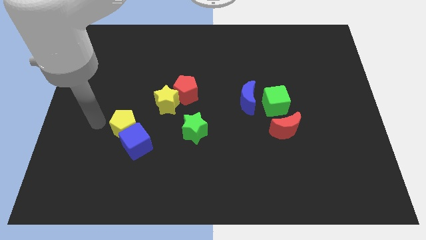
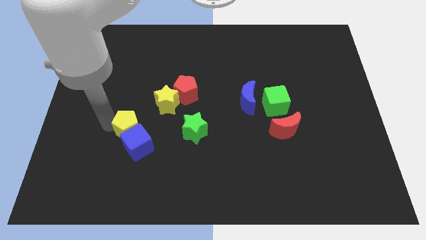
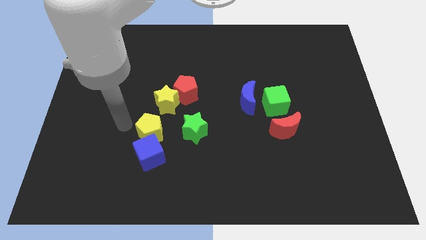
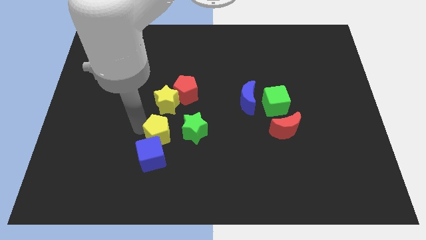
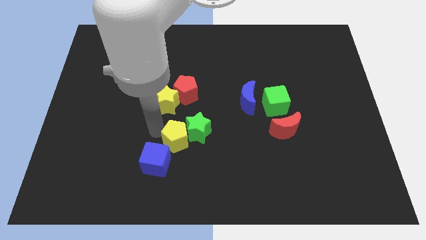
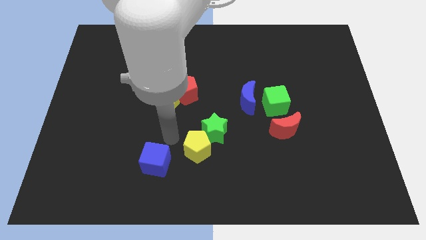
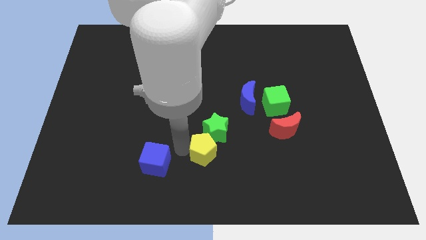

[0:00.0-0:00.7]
move the blue cube away from the yellow pentagon

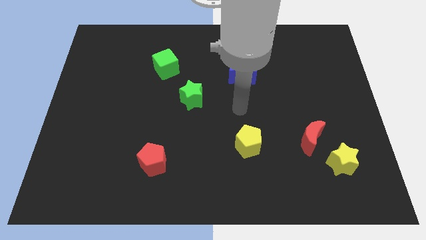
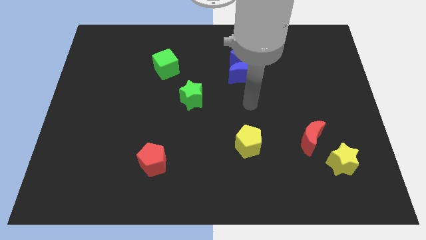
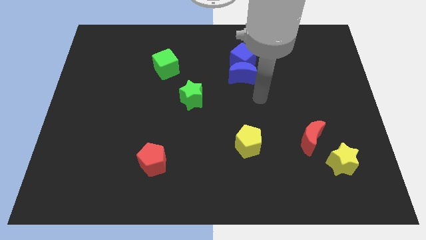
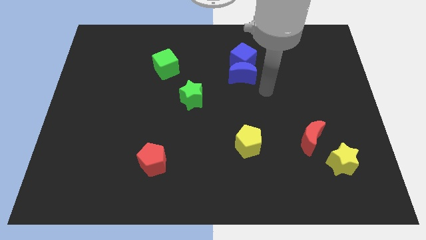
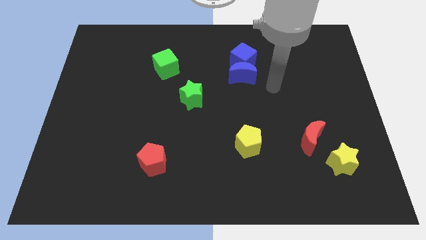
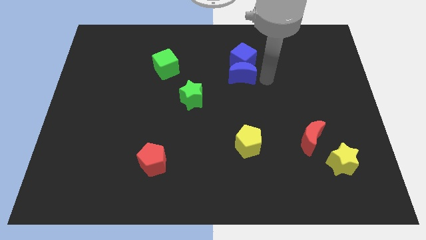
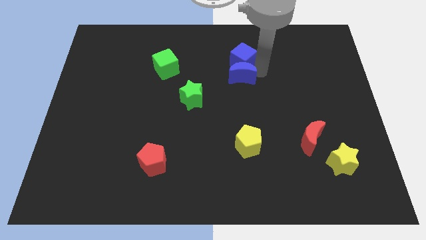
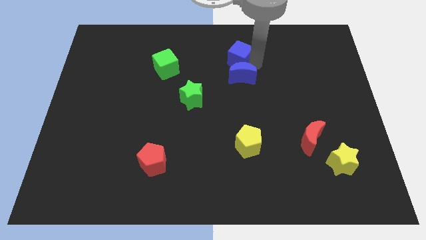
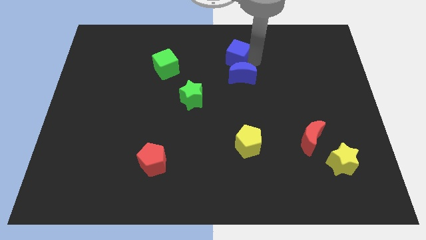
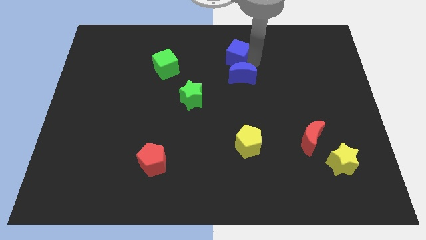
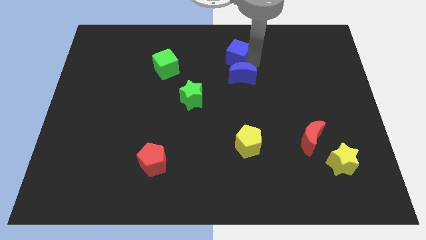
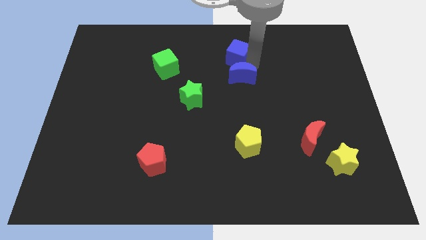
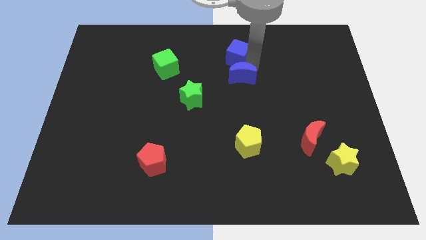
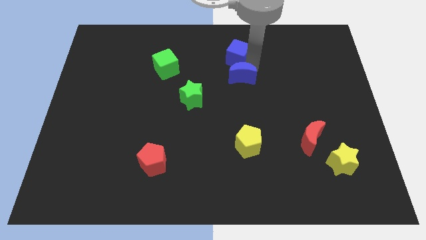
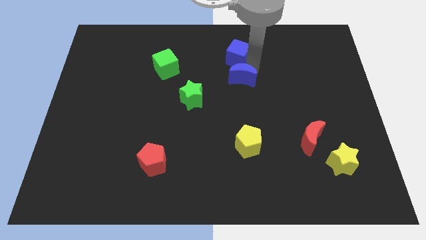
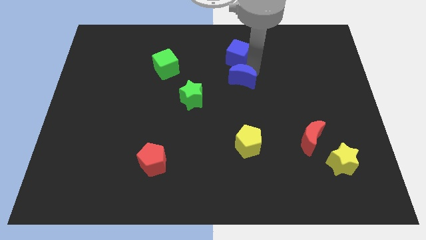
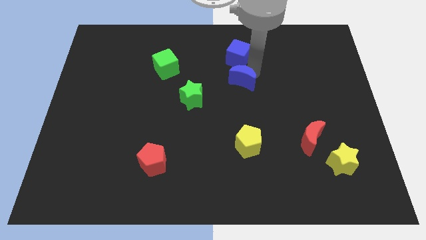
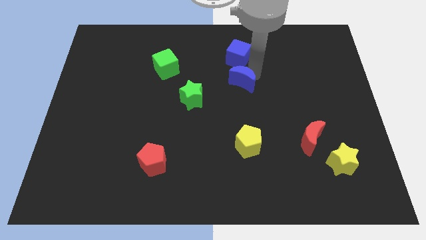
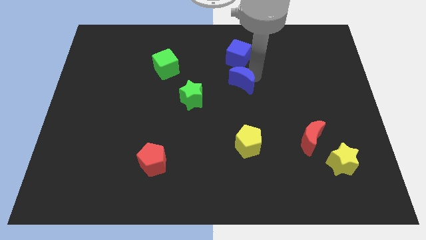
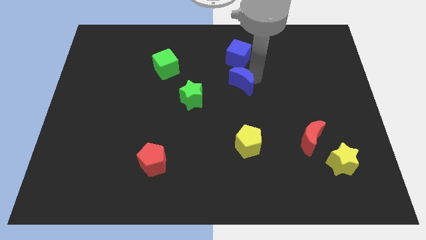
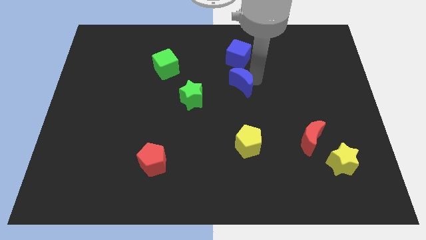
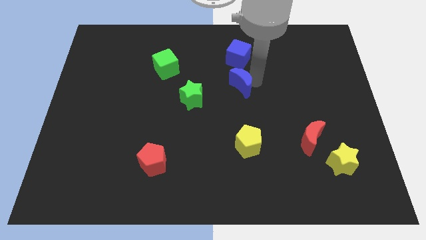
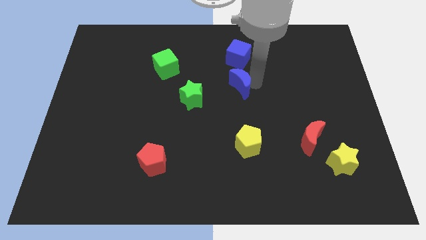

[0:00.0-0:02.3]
pull the blue moon apart from the blue cube

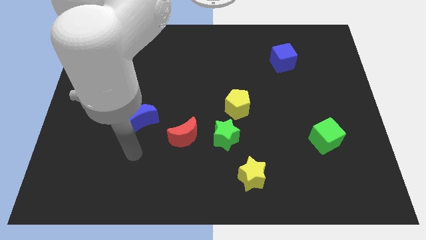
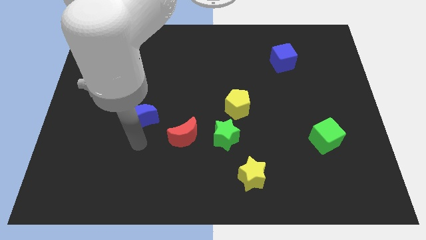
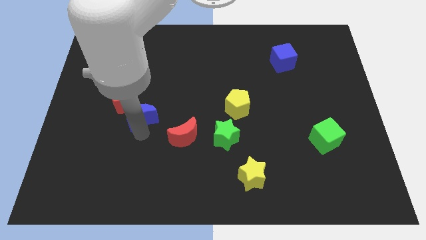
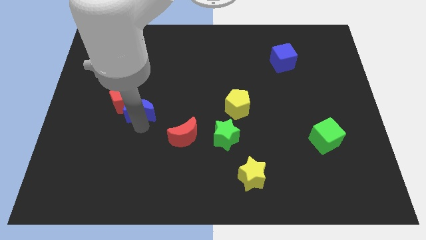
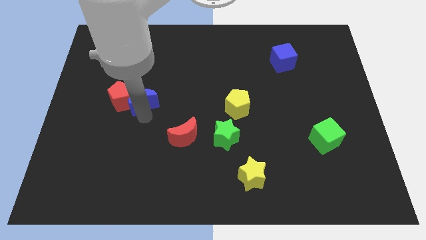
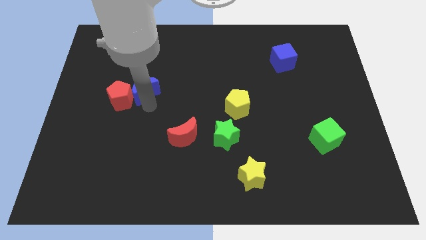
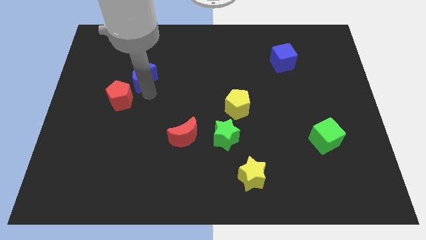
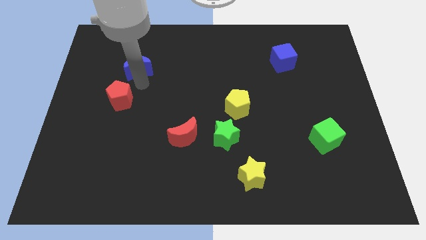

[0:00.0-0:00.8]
move the red pentagon away from the blue moon

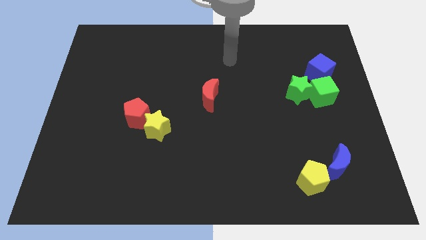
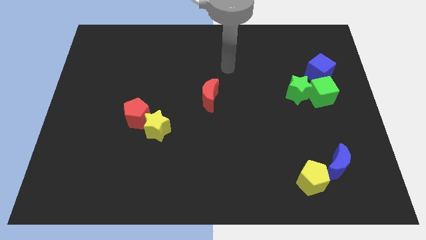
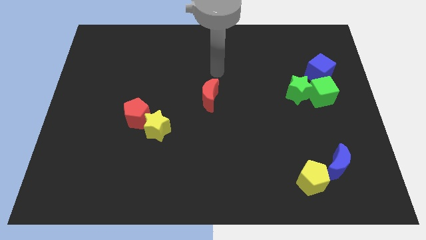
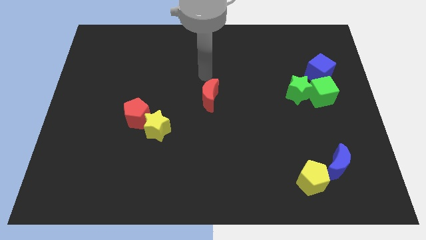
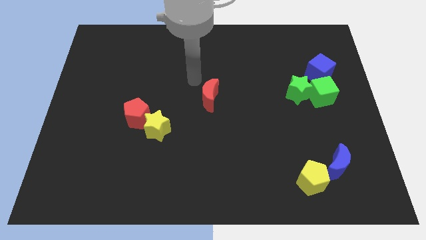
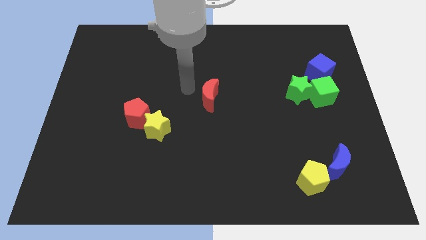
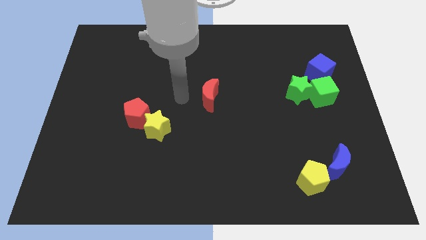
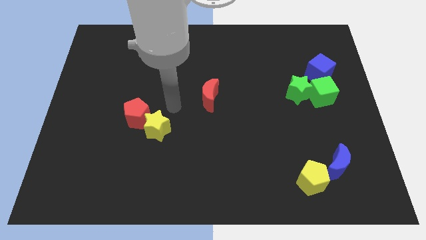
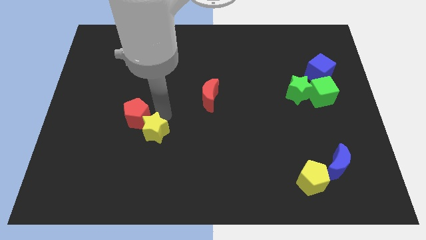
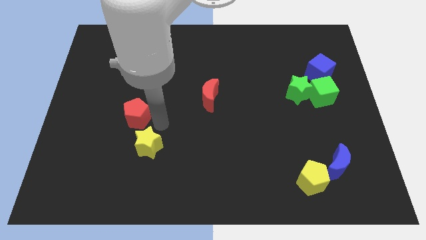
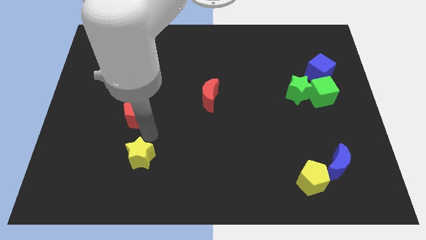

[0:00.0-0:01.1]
pull the red pentagon apart from the yellow star

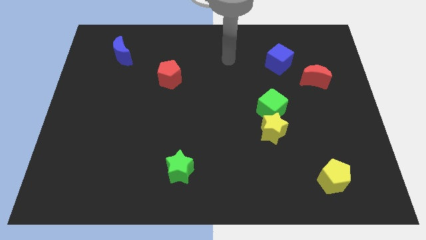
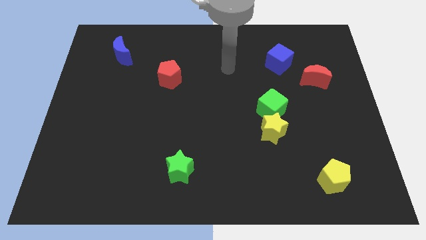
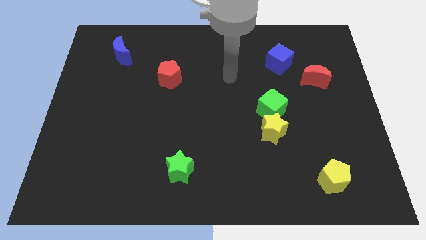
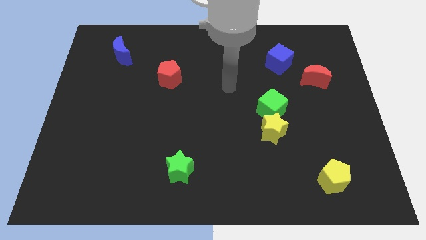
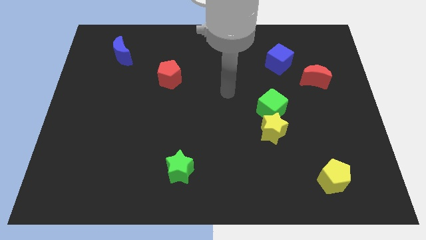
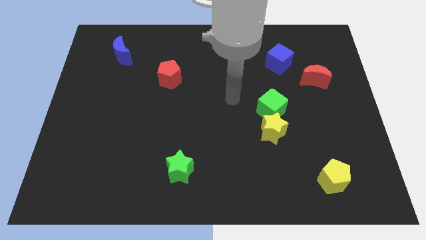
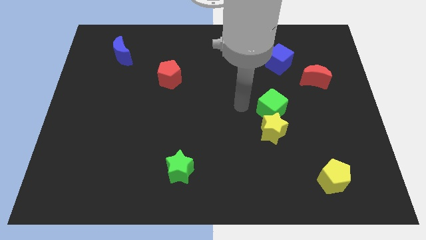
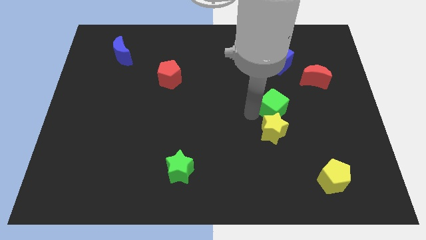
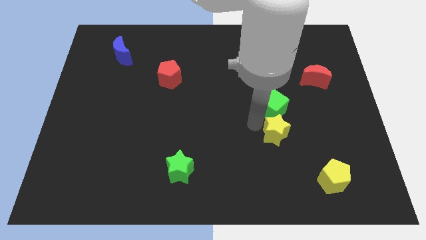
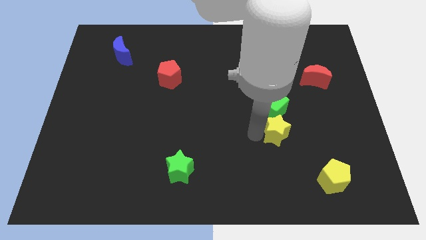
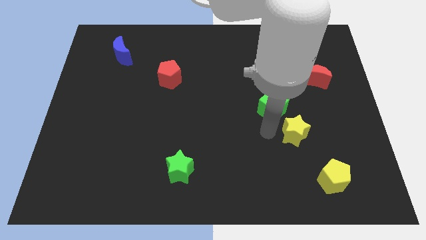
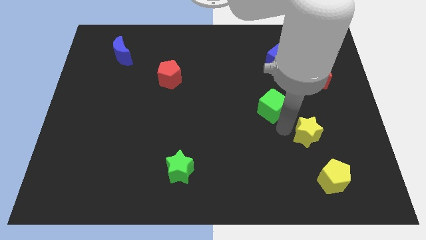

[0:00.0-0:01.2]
pull the green cube apart from the yellow star

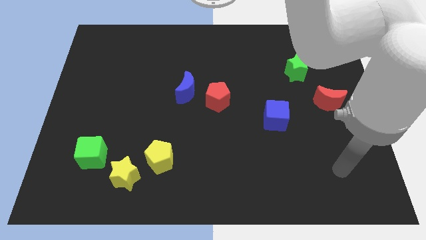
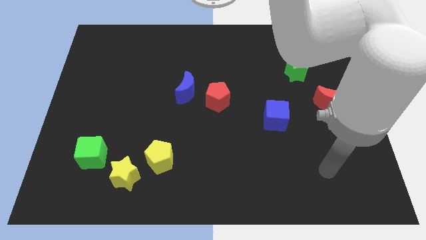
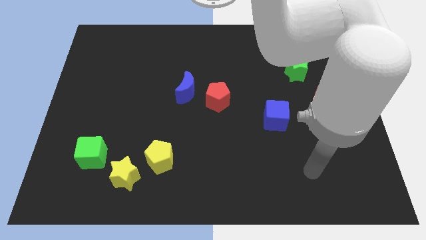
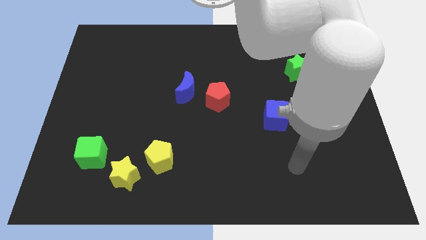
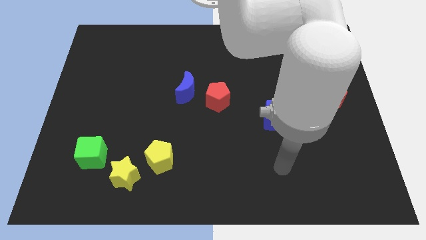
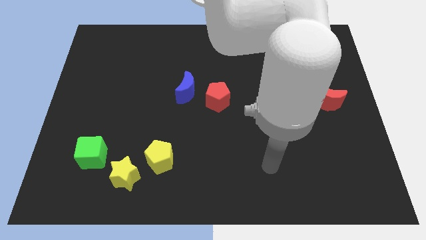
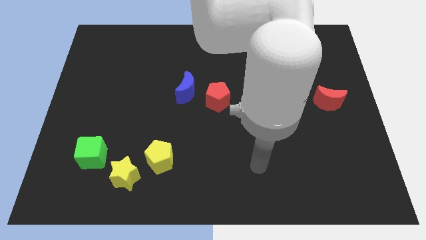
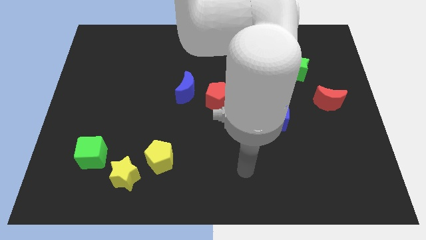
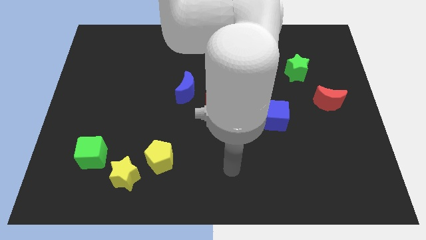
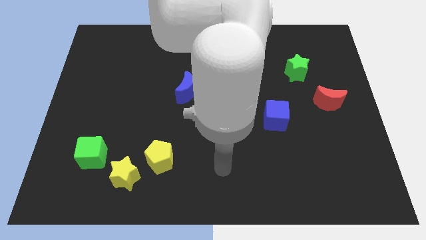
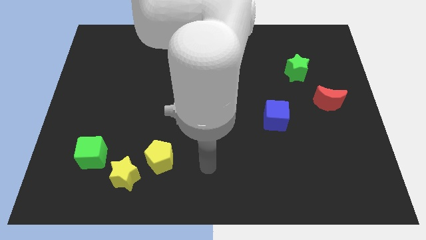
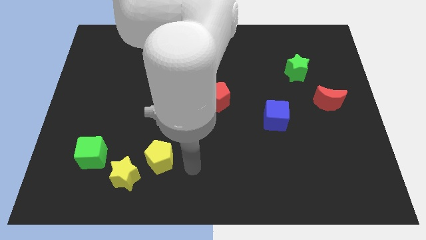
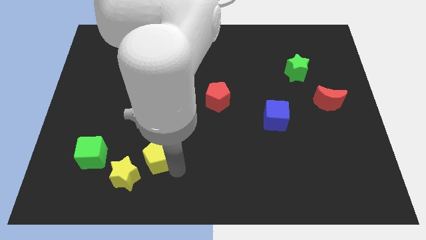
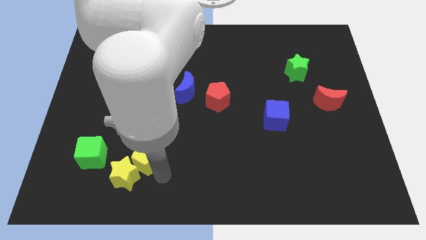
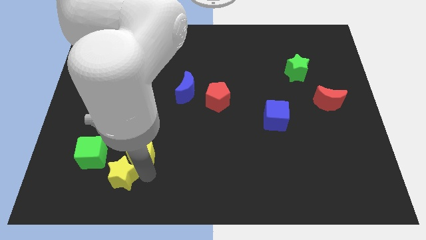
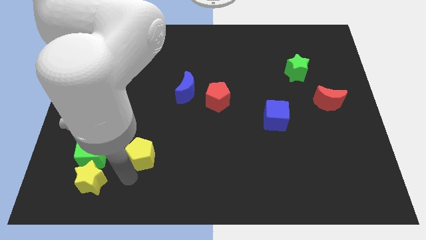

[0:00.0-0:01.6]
move the yellow pentagon away from the yellow star

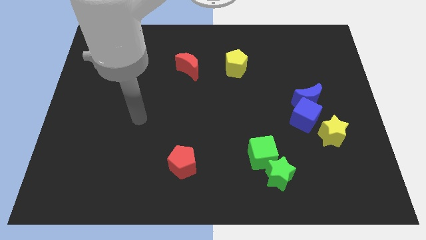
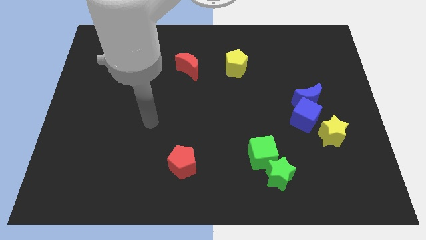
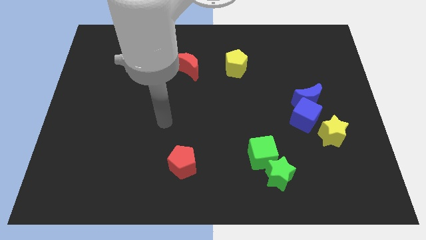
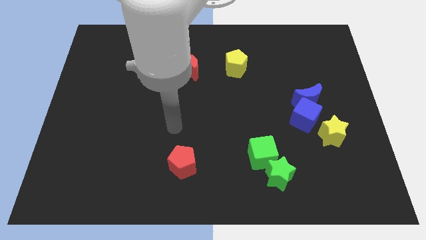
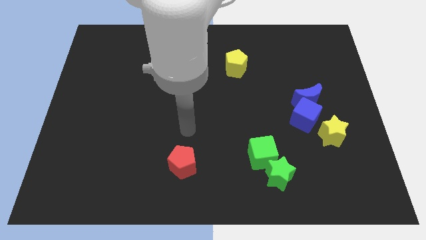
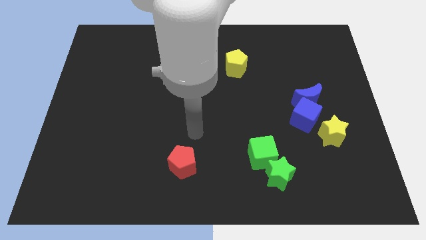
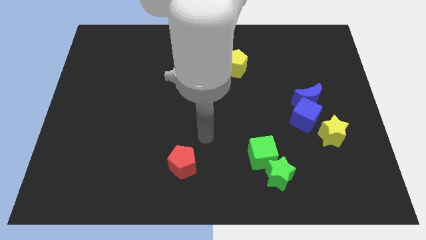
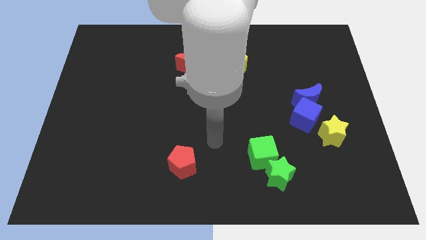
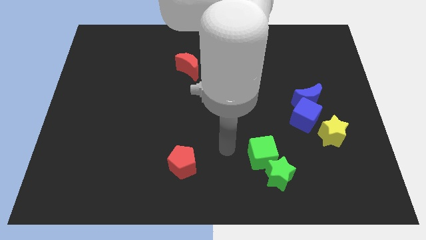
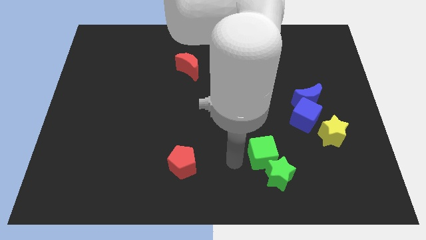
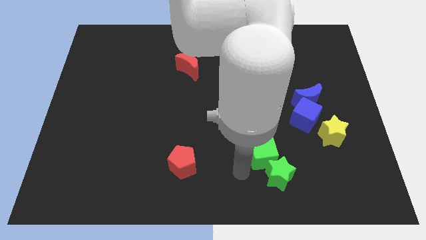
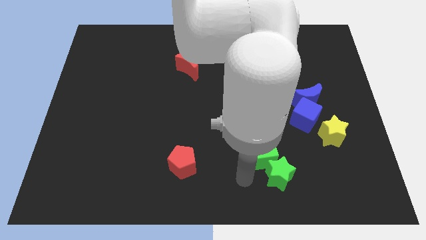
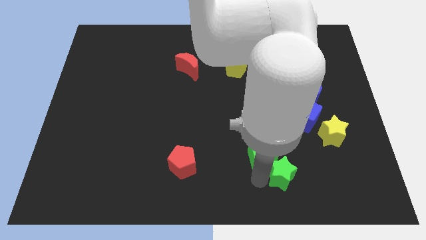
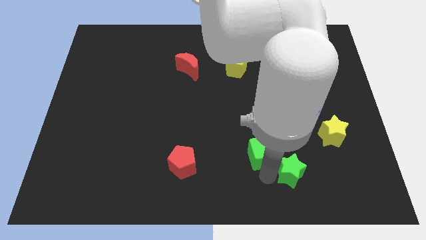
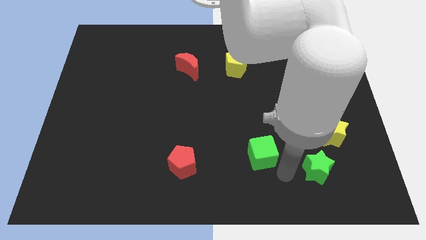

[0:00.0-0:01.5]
separate the green cube from the green star
